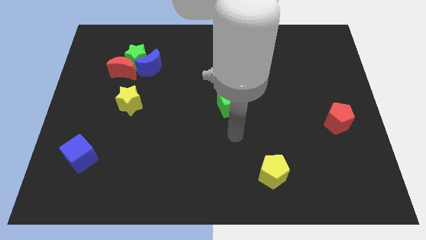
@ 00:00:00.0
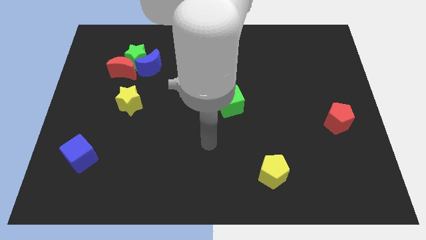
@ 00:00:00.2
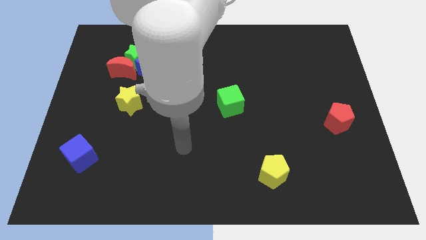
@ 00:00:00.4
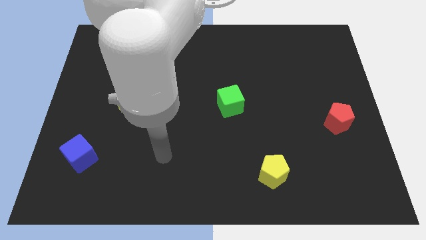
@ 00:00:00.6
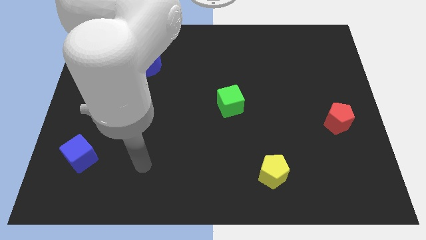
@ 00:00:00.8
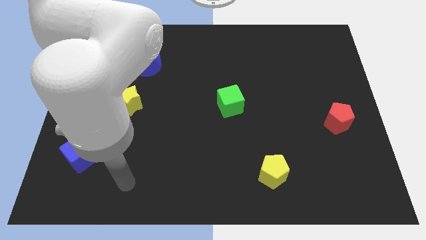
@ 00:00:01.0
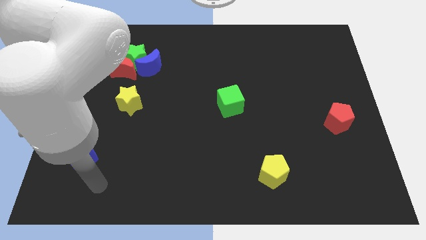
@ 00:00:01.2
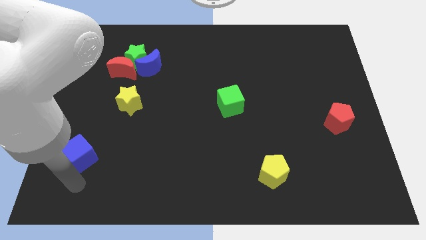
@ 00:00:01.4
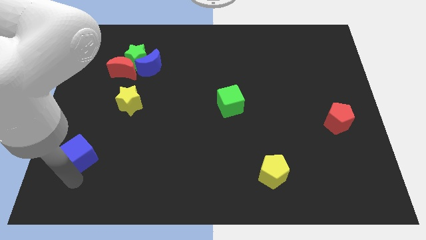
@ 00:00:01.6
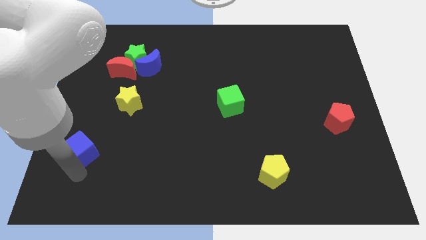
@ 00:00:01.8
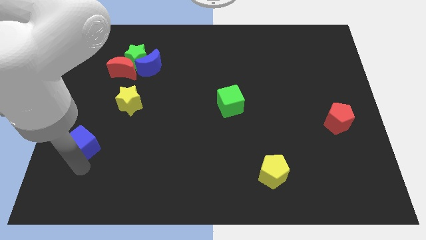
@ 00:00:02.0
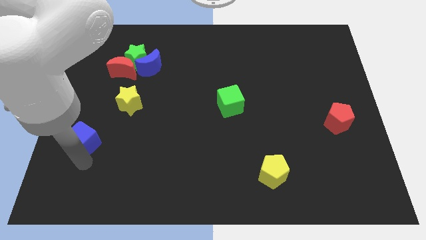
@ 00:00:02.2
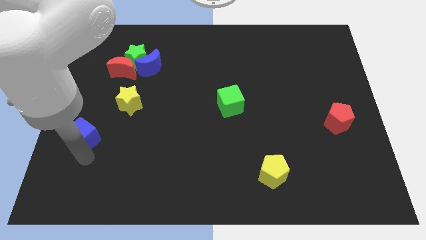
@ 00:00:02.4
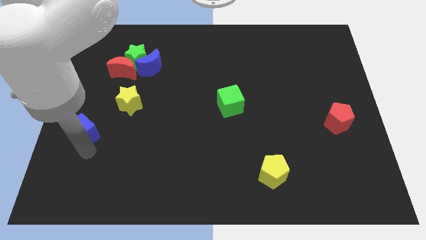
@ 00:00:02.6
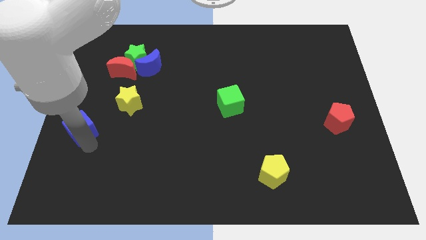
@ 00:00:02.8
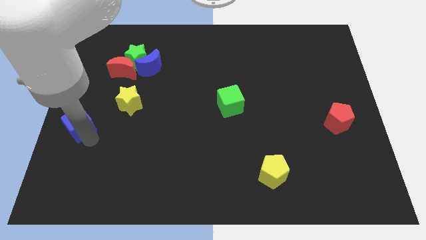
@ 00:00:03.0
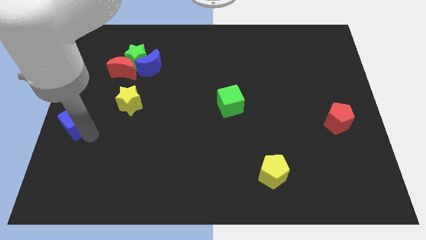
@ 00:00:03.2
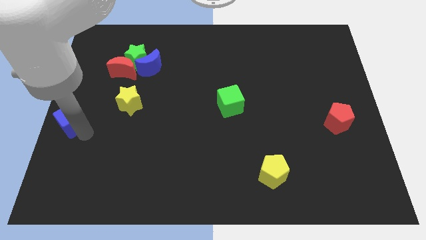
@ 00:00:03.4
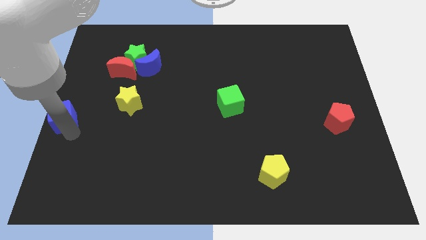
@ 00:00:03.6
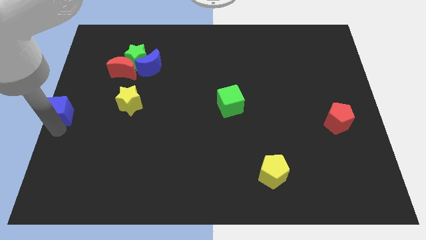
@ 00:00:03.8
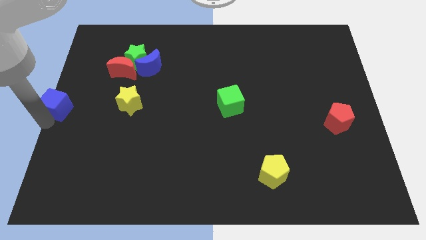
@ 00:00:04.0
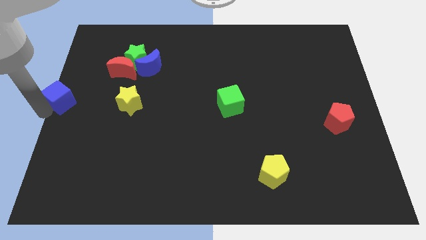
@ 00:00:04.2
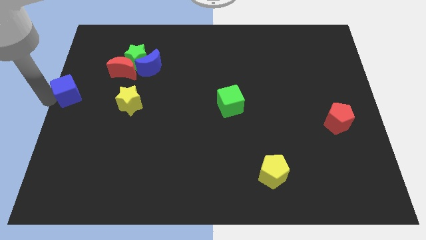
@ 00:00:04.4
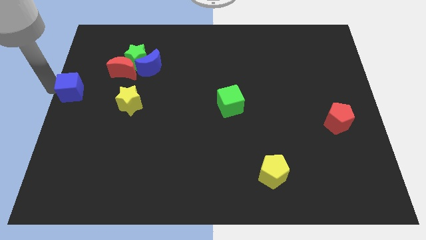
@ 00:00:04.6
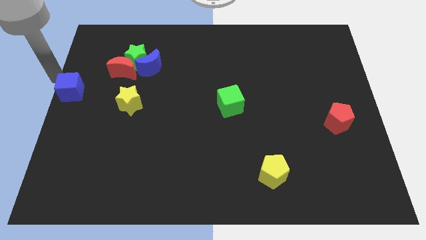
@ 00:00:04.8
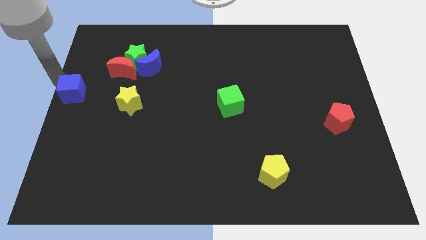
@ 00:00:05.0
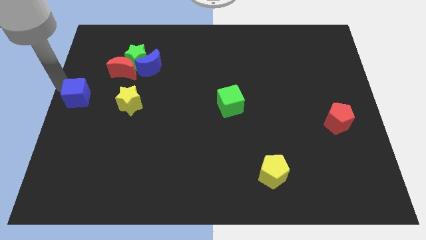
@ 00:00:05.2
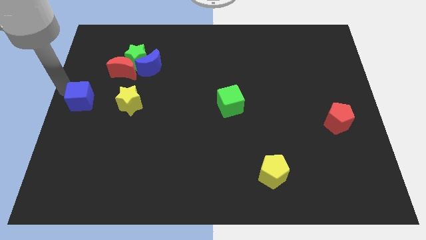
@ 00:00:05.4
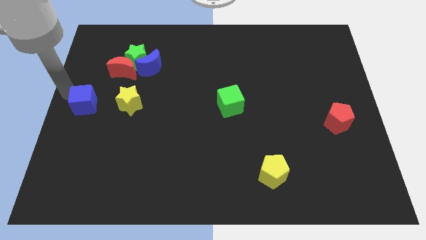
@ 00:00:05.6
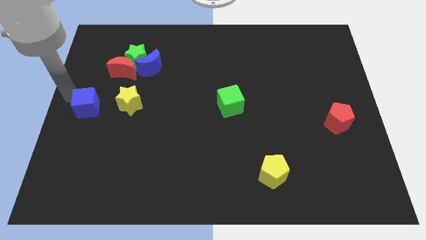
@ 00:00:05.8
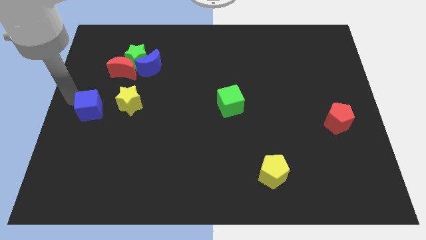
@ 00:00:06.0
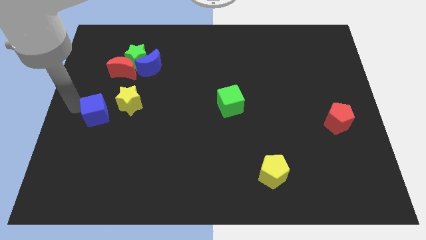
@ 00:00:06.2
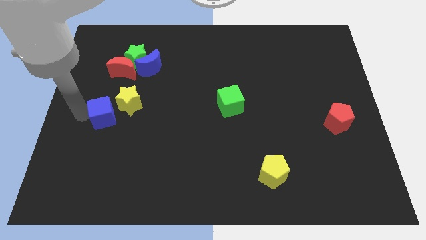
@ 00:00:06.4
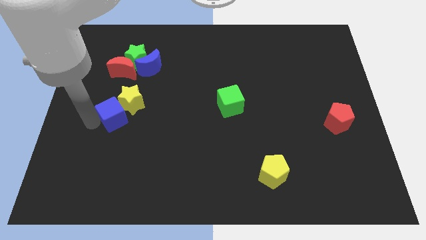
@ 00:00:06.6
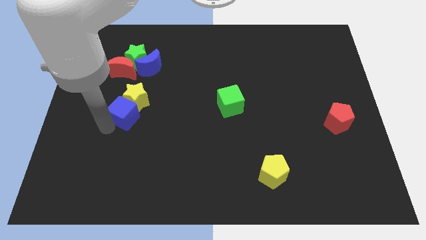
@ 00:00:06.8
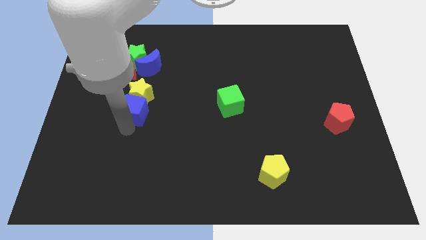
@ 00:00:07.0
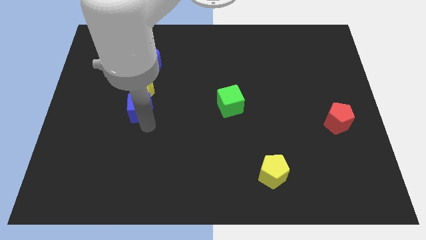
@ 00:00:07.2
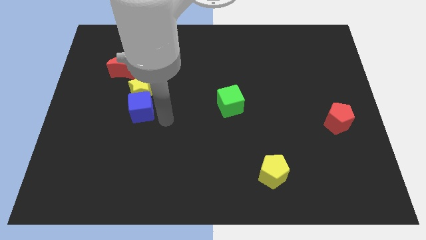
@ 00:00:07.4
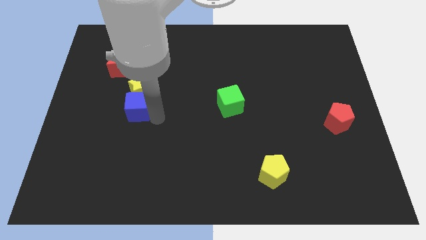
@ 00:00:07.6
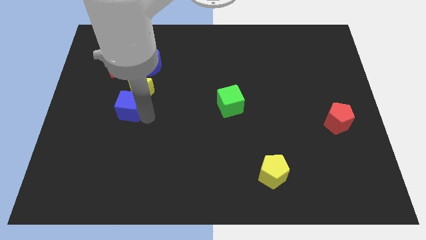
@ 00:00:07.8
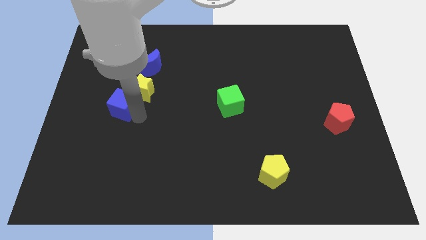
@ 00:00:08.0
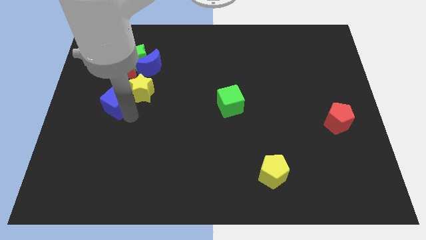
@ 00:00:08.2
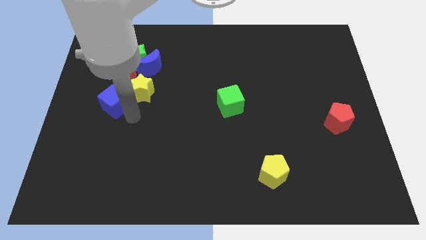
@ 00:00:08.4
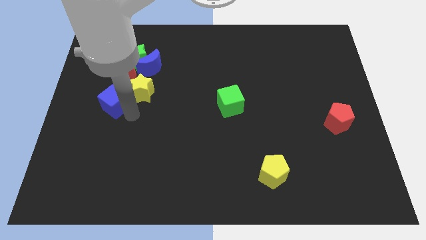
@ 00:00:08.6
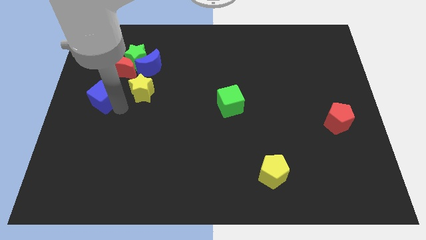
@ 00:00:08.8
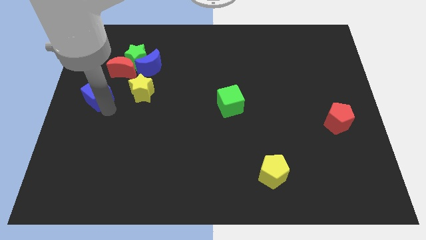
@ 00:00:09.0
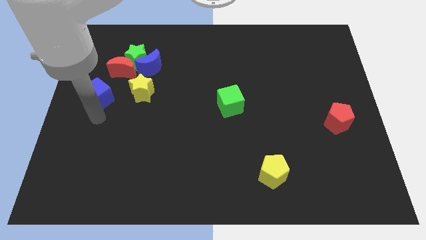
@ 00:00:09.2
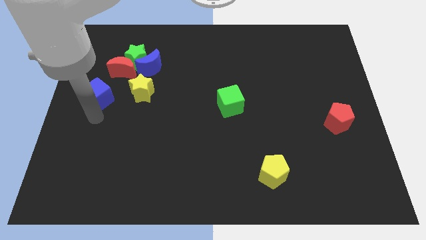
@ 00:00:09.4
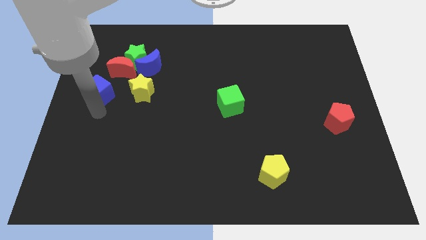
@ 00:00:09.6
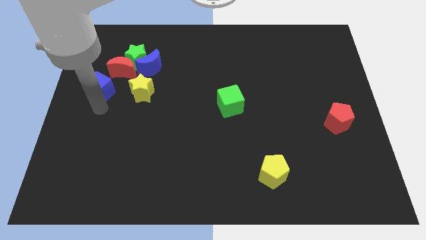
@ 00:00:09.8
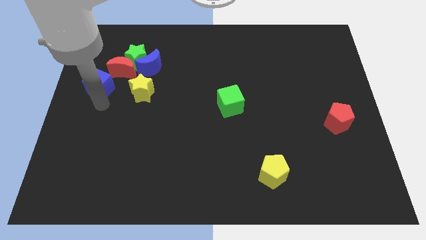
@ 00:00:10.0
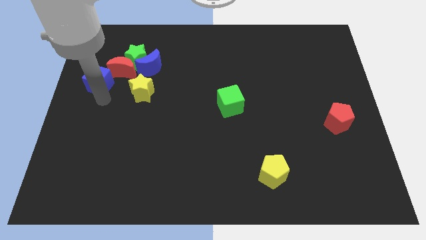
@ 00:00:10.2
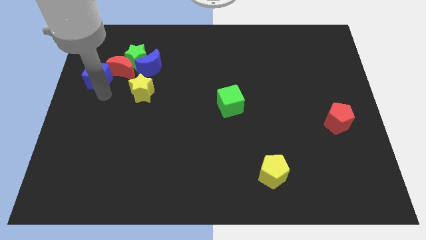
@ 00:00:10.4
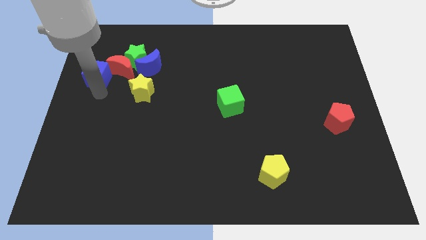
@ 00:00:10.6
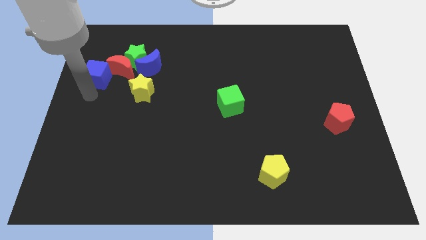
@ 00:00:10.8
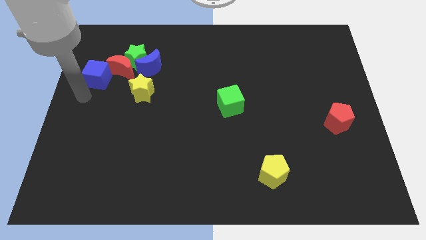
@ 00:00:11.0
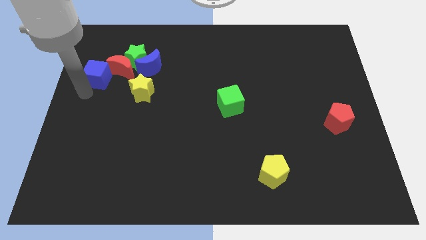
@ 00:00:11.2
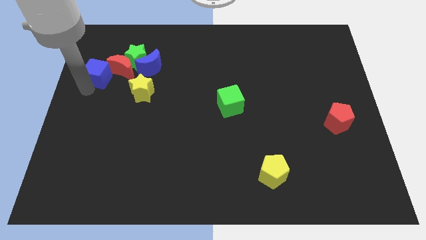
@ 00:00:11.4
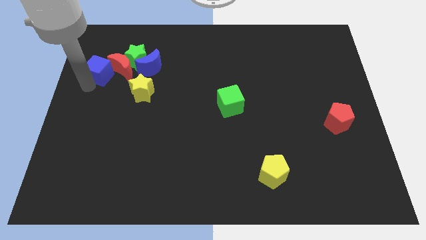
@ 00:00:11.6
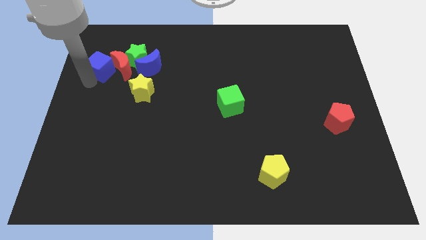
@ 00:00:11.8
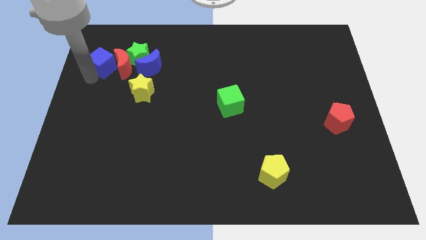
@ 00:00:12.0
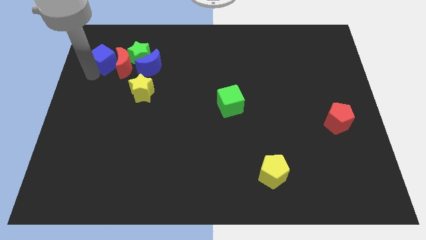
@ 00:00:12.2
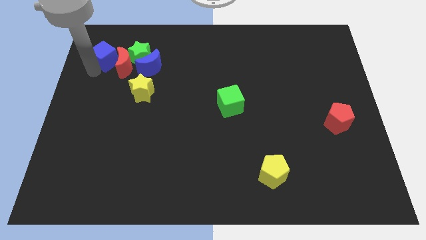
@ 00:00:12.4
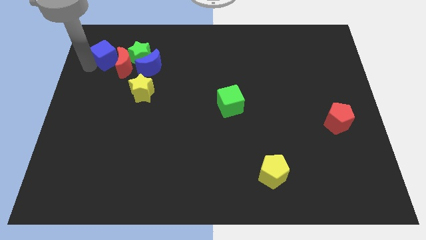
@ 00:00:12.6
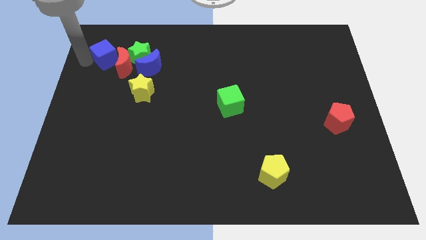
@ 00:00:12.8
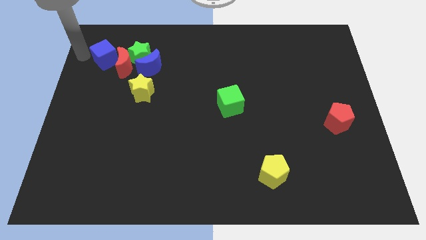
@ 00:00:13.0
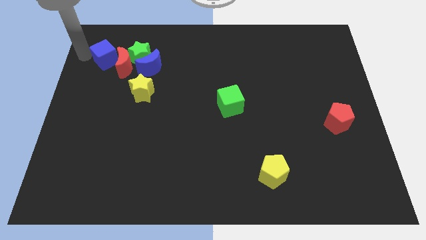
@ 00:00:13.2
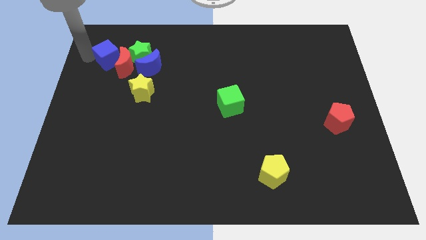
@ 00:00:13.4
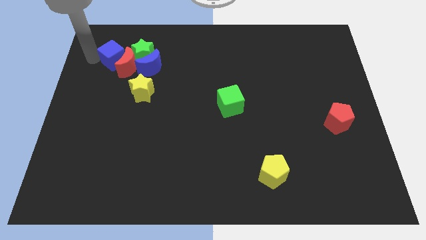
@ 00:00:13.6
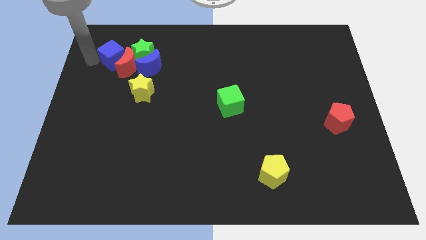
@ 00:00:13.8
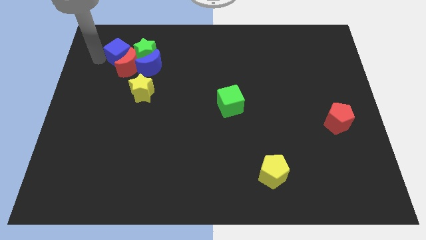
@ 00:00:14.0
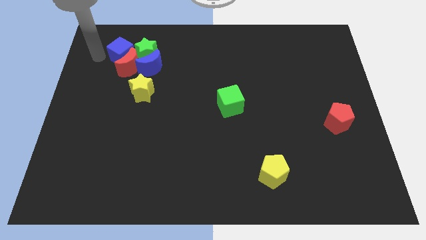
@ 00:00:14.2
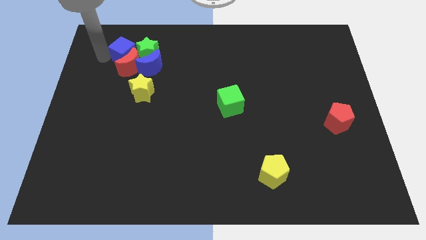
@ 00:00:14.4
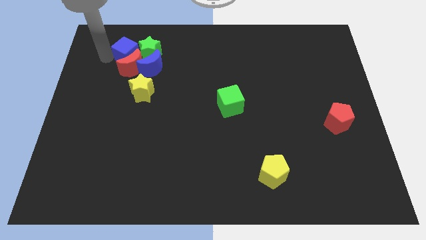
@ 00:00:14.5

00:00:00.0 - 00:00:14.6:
push the blue cube close to the green star
